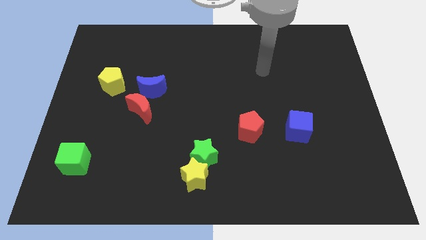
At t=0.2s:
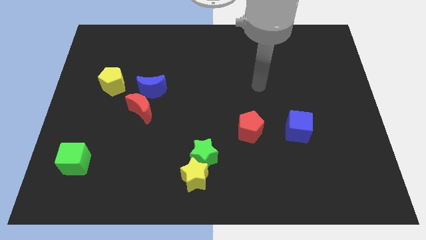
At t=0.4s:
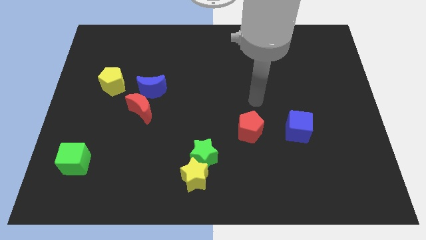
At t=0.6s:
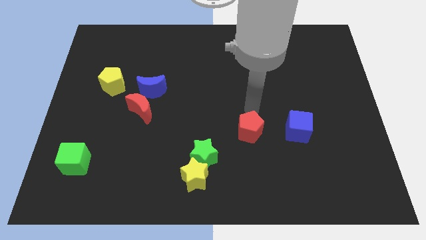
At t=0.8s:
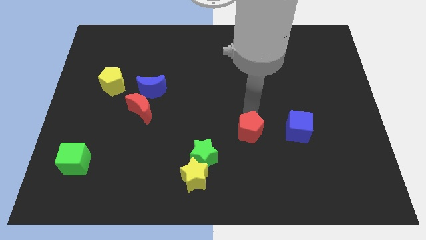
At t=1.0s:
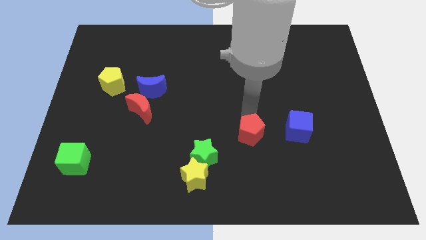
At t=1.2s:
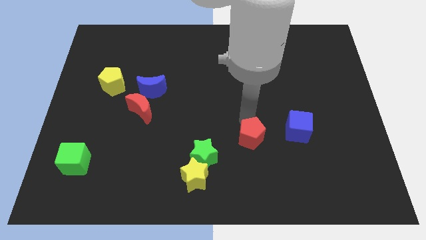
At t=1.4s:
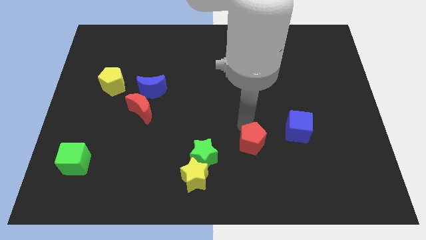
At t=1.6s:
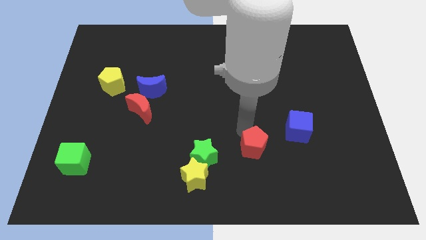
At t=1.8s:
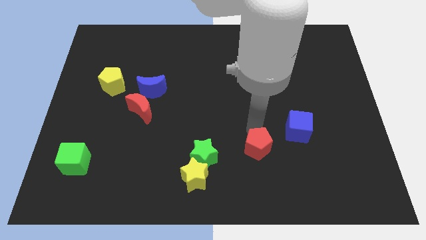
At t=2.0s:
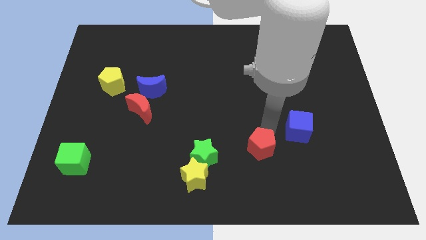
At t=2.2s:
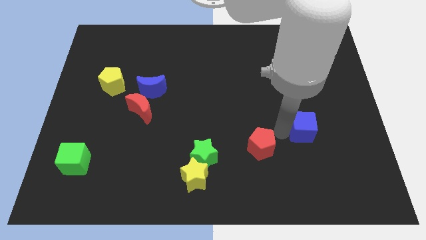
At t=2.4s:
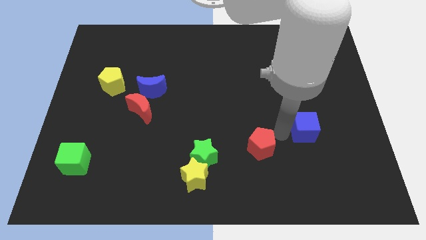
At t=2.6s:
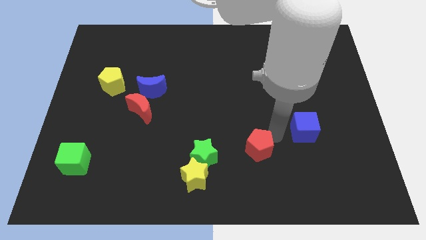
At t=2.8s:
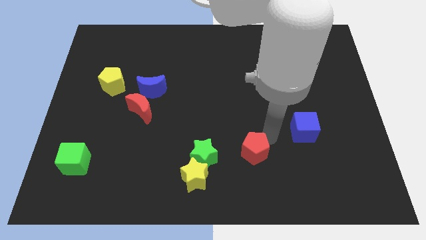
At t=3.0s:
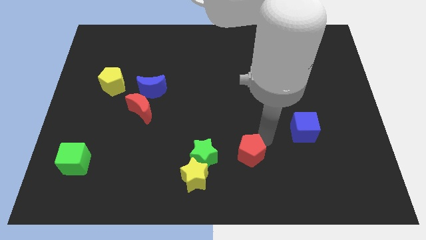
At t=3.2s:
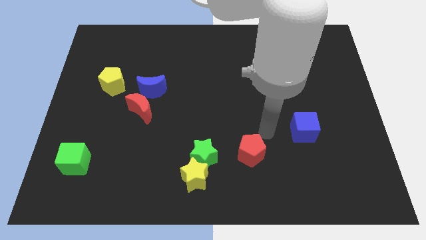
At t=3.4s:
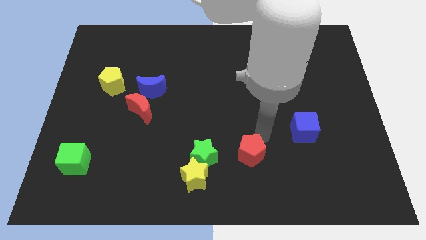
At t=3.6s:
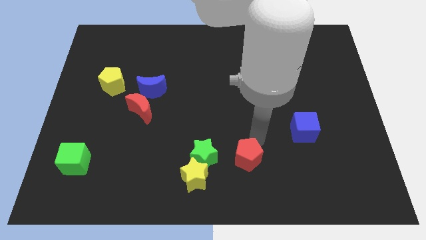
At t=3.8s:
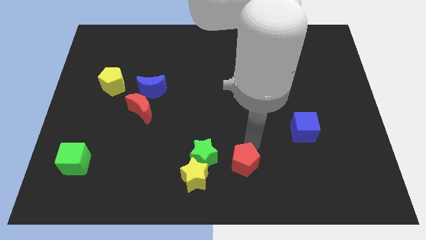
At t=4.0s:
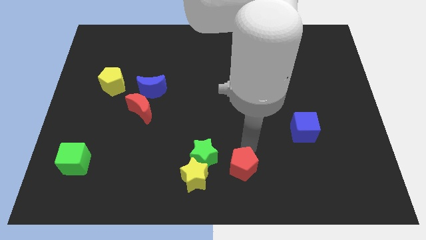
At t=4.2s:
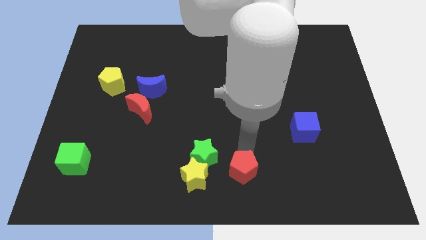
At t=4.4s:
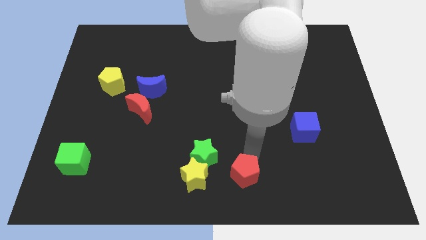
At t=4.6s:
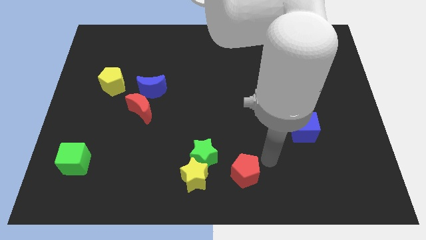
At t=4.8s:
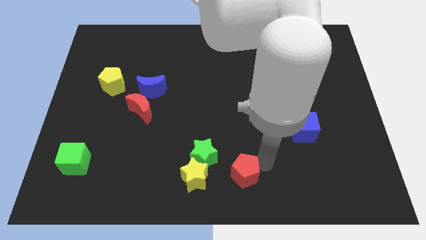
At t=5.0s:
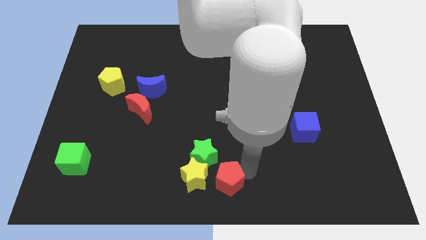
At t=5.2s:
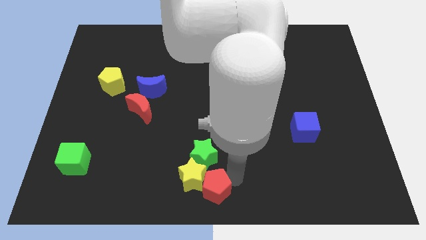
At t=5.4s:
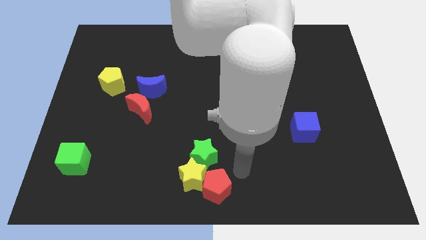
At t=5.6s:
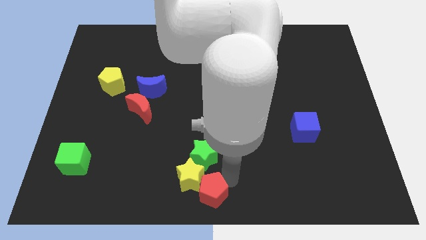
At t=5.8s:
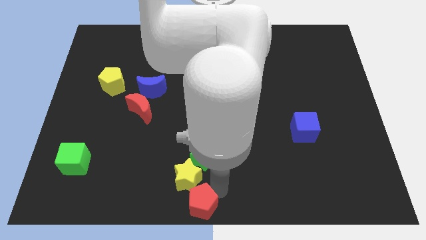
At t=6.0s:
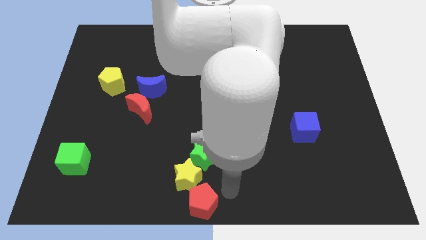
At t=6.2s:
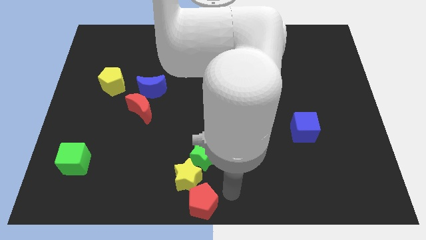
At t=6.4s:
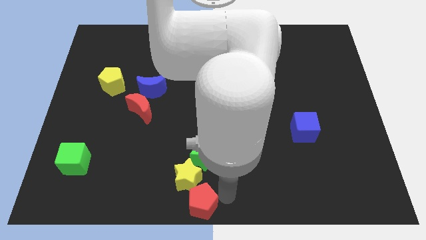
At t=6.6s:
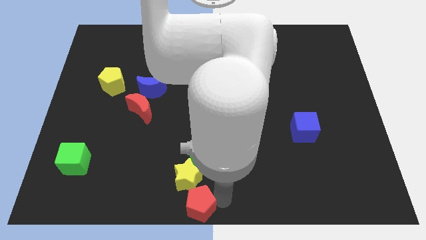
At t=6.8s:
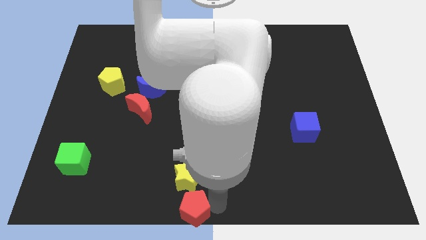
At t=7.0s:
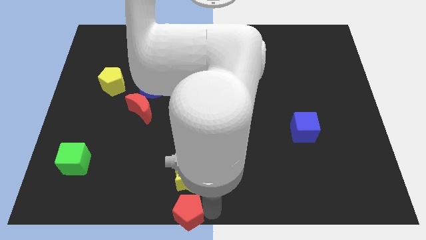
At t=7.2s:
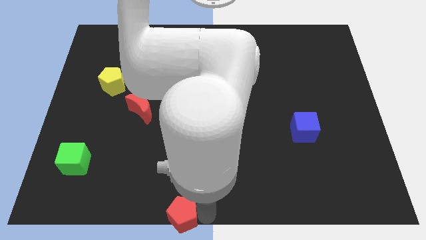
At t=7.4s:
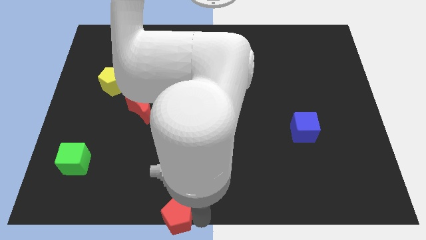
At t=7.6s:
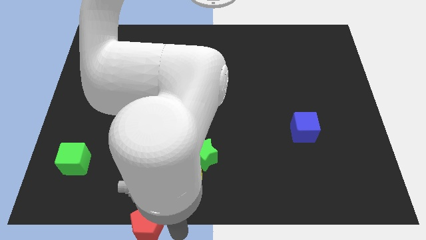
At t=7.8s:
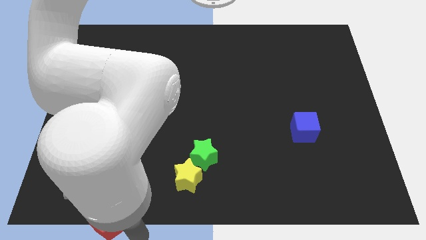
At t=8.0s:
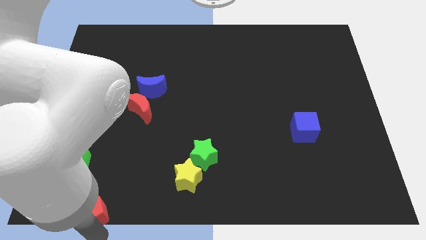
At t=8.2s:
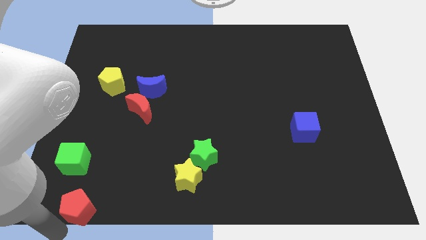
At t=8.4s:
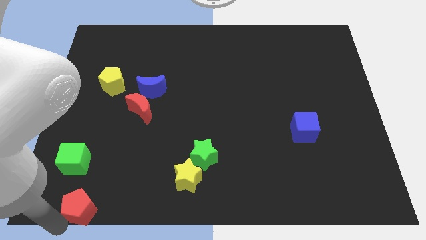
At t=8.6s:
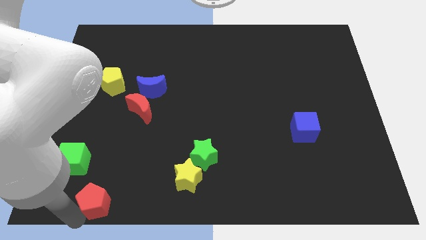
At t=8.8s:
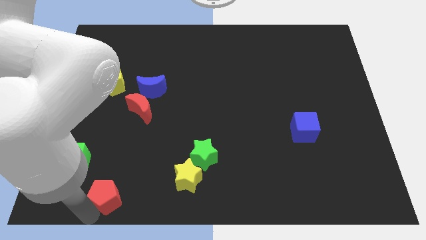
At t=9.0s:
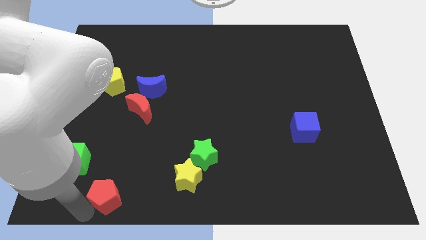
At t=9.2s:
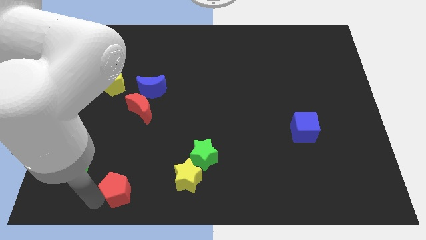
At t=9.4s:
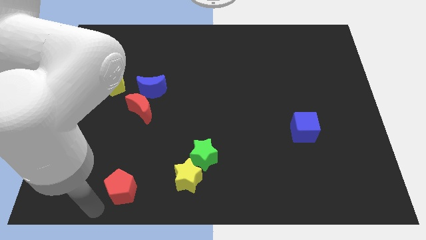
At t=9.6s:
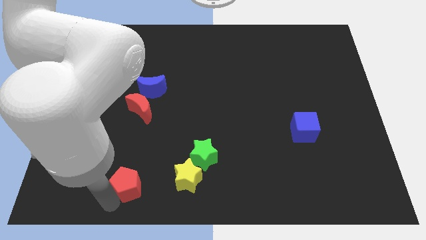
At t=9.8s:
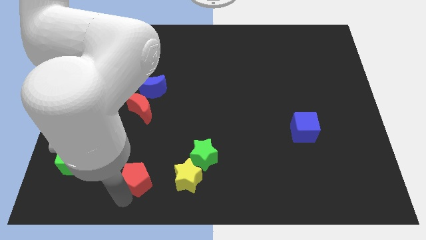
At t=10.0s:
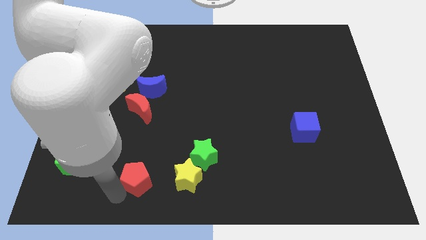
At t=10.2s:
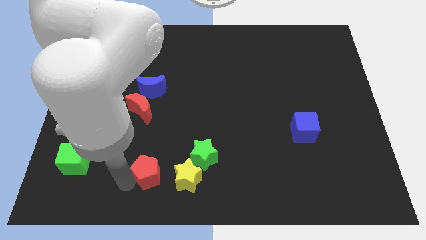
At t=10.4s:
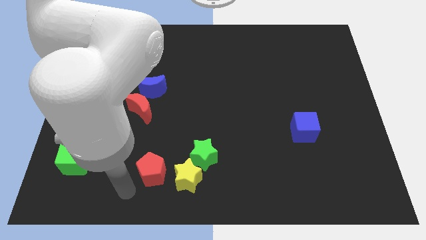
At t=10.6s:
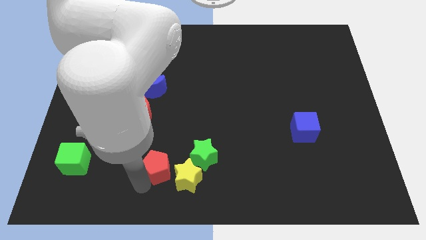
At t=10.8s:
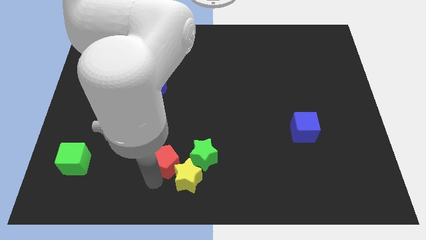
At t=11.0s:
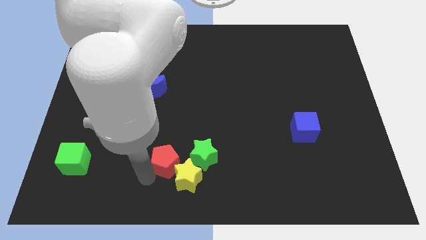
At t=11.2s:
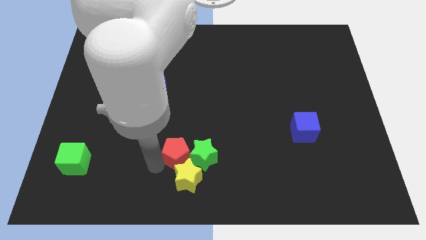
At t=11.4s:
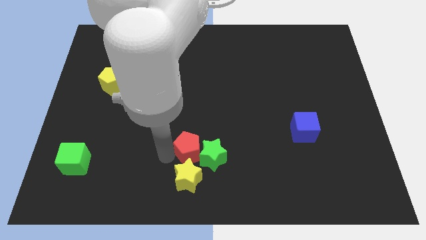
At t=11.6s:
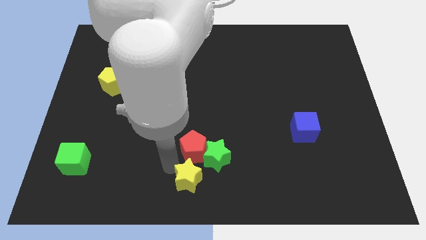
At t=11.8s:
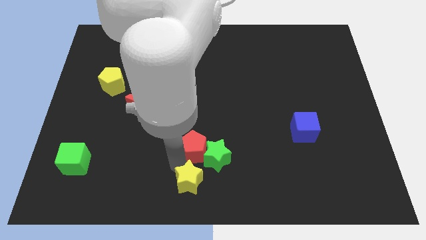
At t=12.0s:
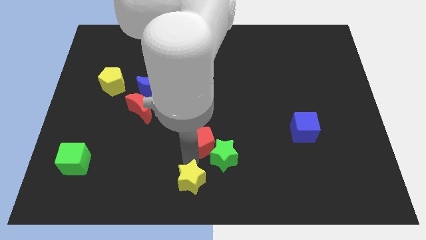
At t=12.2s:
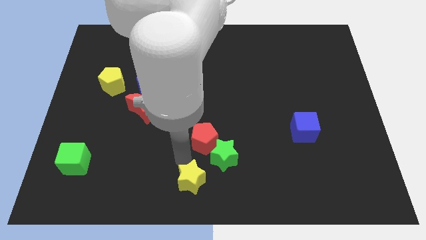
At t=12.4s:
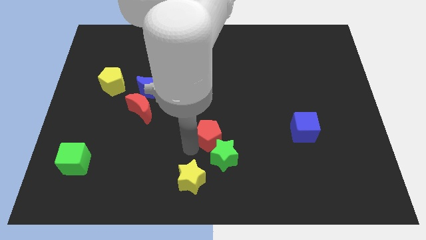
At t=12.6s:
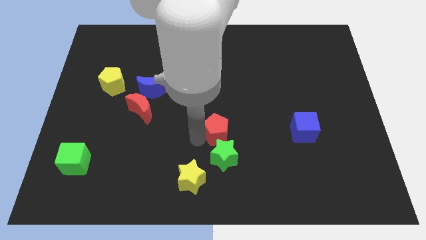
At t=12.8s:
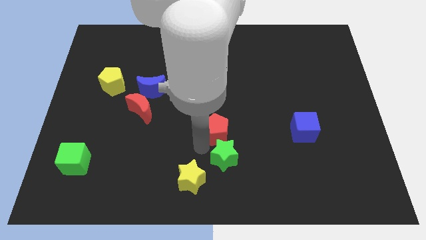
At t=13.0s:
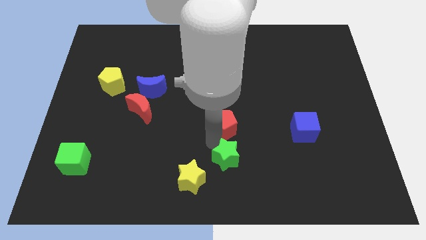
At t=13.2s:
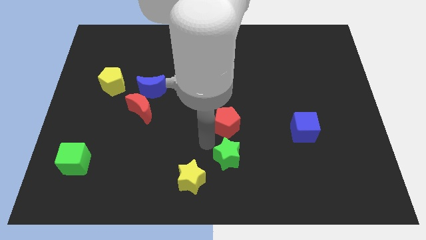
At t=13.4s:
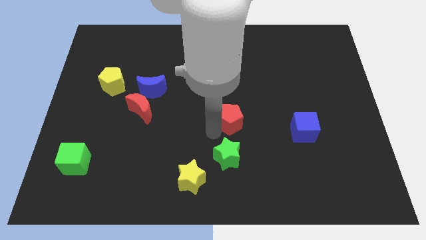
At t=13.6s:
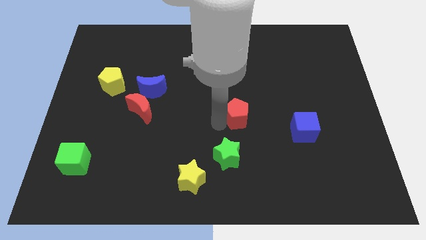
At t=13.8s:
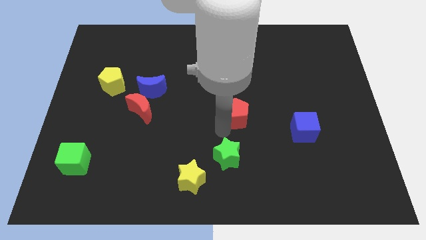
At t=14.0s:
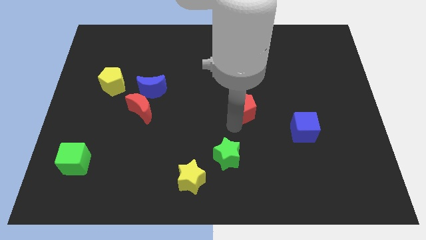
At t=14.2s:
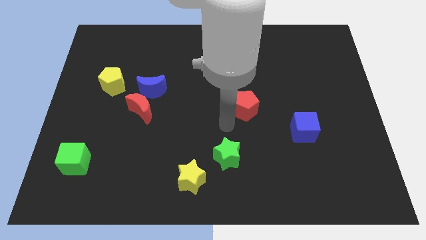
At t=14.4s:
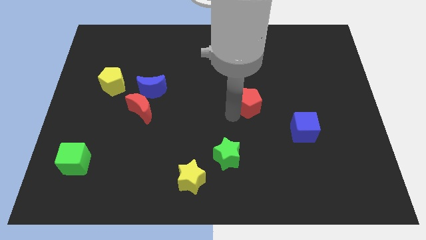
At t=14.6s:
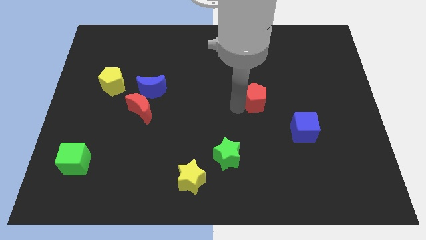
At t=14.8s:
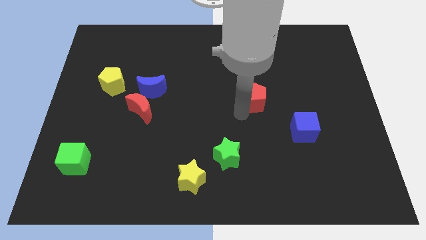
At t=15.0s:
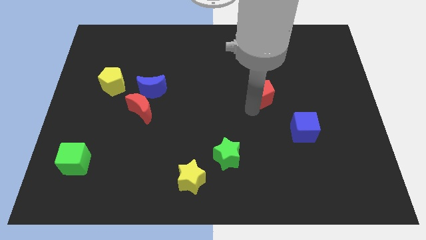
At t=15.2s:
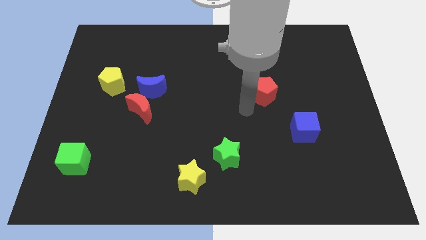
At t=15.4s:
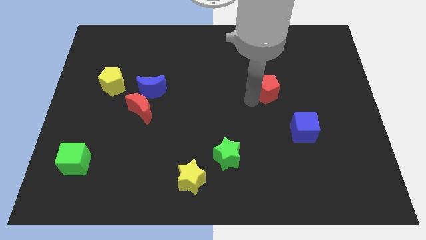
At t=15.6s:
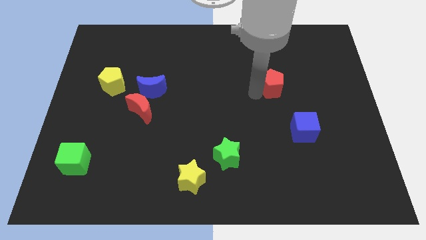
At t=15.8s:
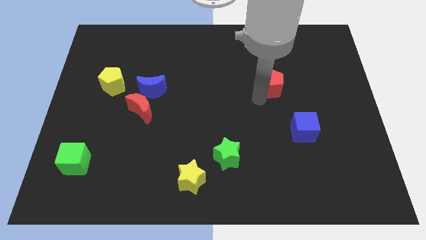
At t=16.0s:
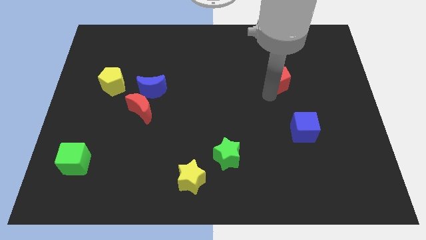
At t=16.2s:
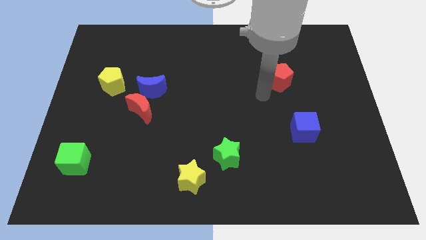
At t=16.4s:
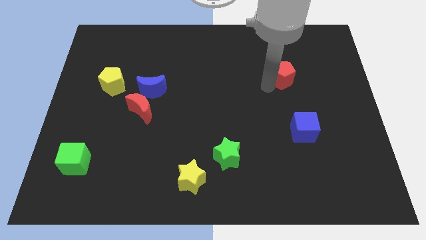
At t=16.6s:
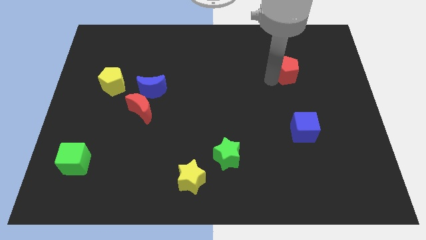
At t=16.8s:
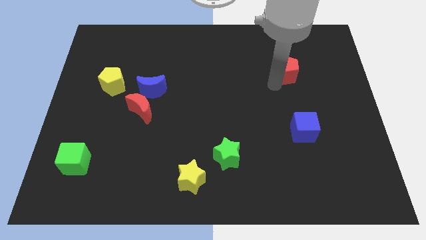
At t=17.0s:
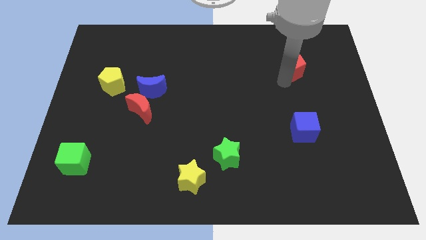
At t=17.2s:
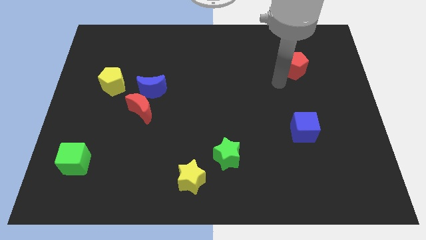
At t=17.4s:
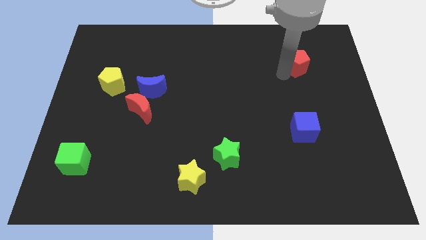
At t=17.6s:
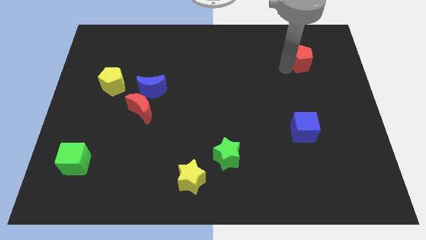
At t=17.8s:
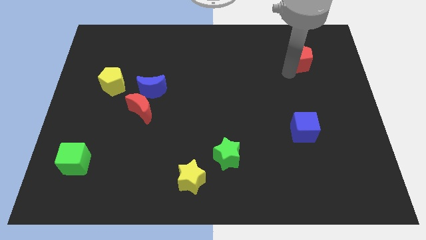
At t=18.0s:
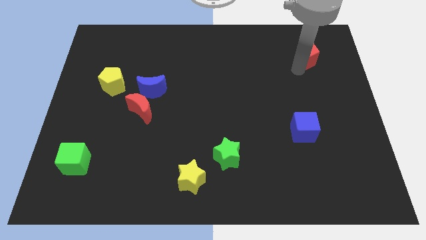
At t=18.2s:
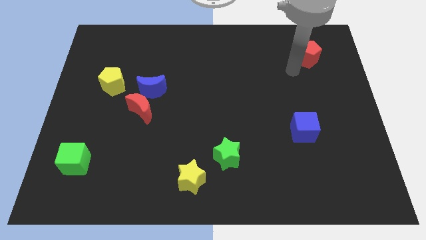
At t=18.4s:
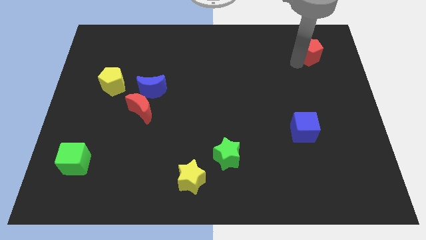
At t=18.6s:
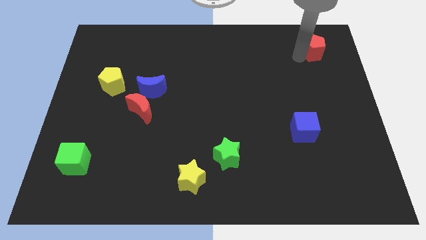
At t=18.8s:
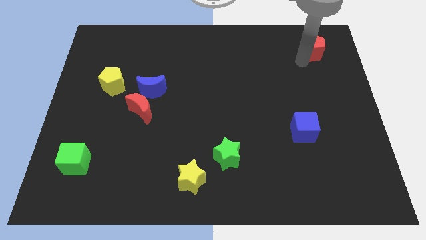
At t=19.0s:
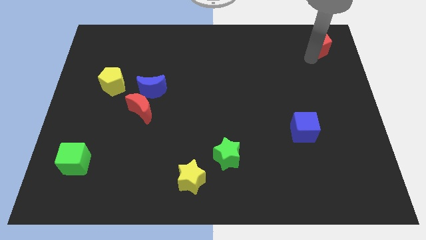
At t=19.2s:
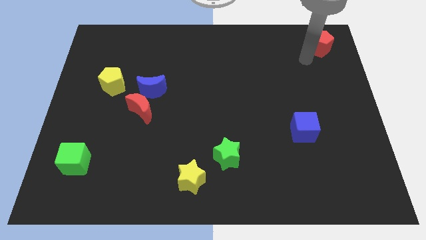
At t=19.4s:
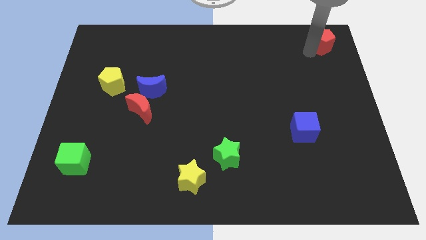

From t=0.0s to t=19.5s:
slide the red pentagon to the top right corner
